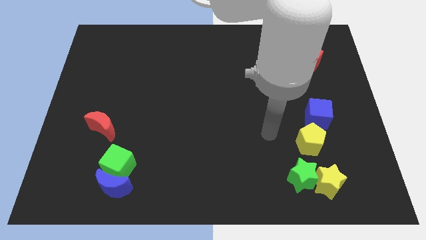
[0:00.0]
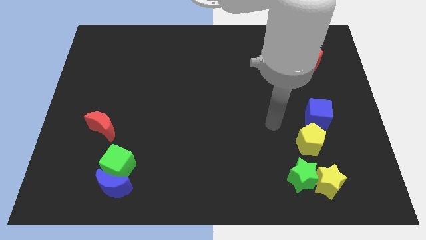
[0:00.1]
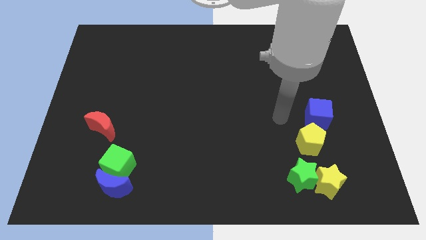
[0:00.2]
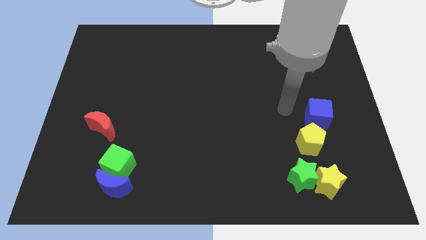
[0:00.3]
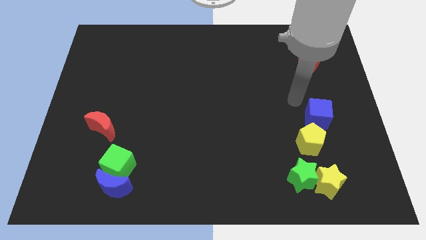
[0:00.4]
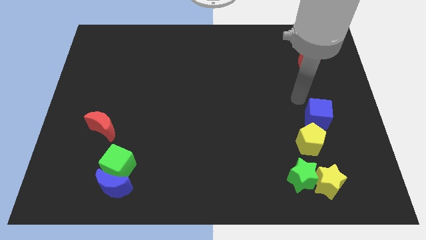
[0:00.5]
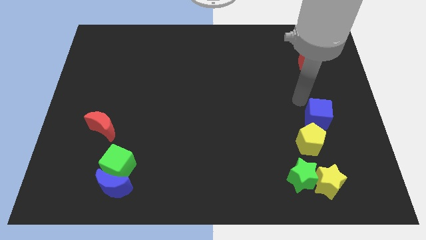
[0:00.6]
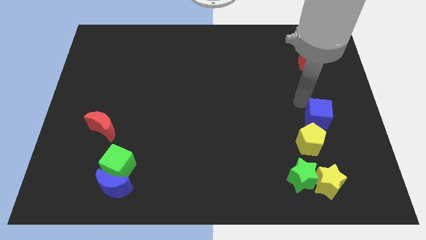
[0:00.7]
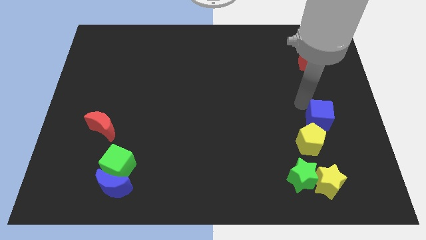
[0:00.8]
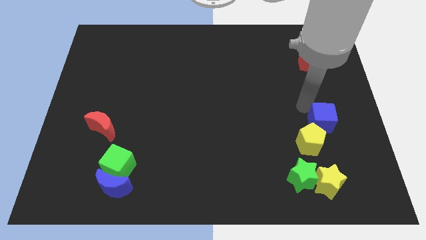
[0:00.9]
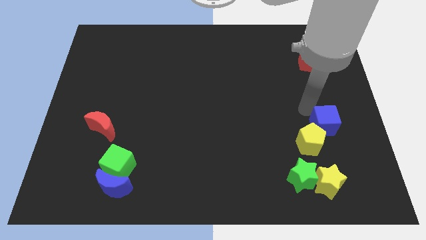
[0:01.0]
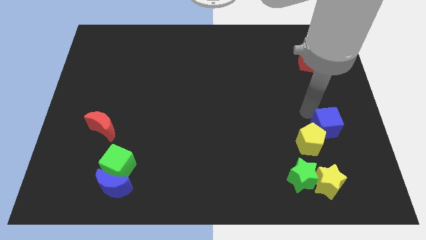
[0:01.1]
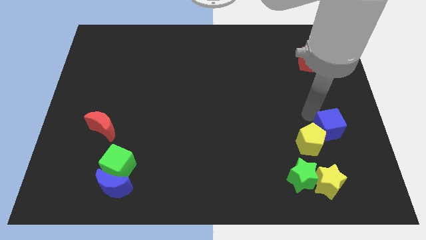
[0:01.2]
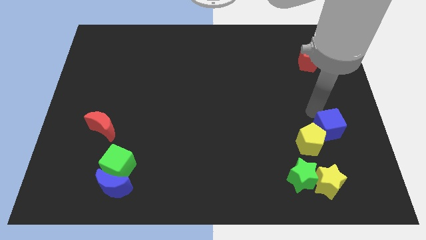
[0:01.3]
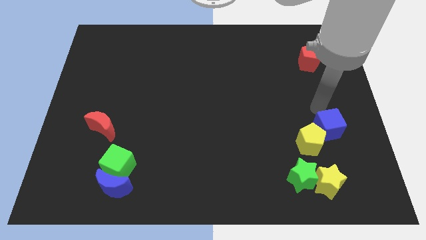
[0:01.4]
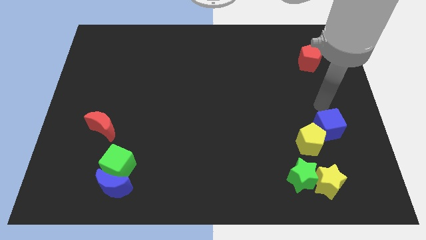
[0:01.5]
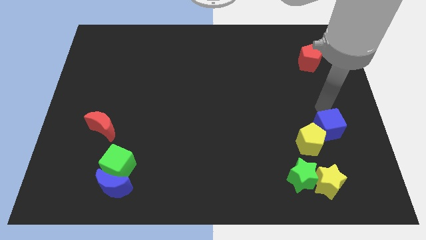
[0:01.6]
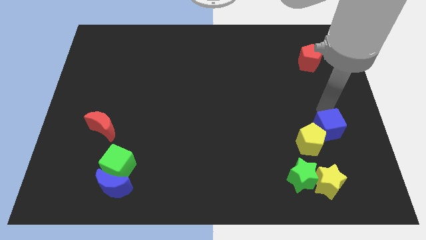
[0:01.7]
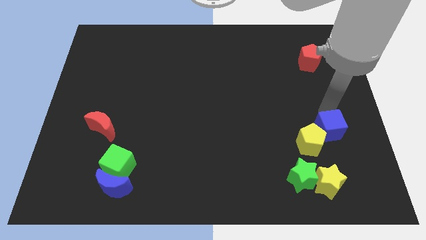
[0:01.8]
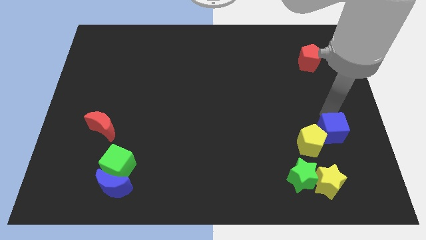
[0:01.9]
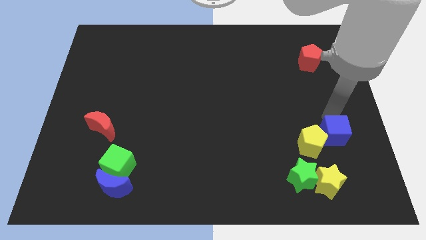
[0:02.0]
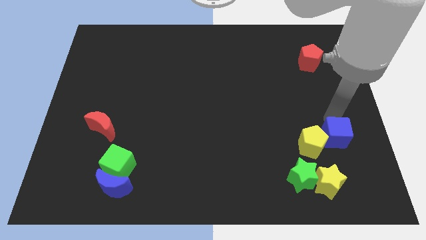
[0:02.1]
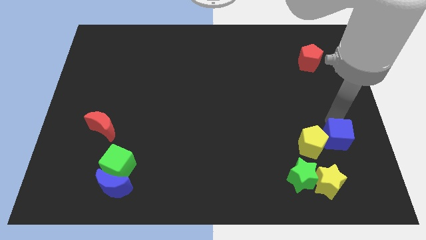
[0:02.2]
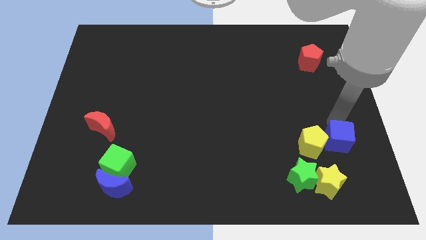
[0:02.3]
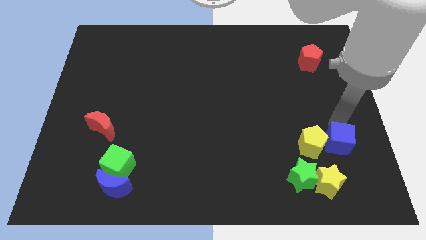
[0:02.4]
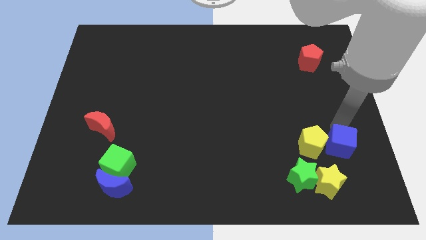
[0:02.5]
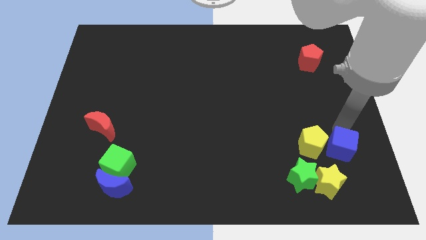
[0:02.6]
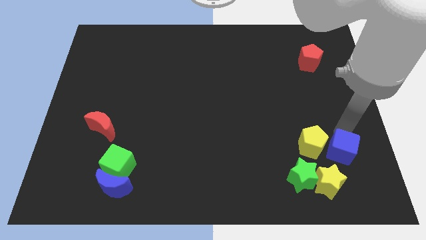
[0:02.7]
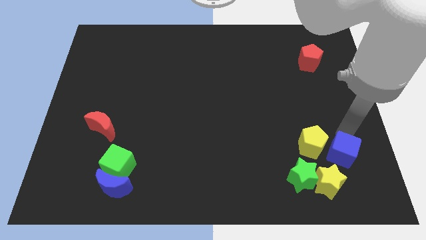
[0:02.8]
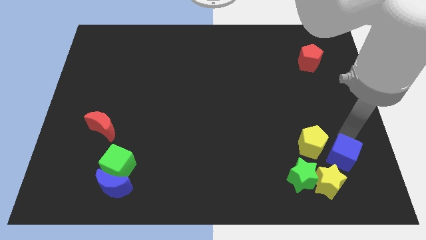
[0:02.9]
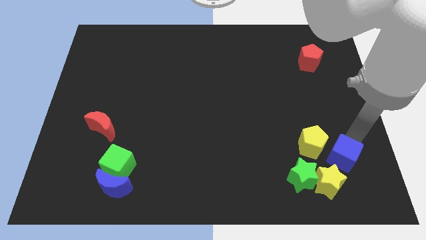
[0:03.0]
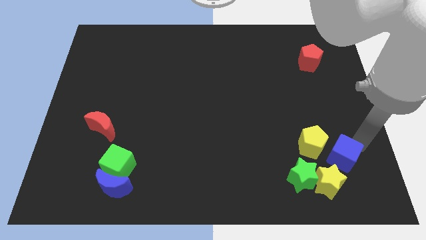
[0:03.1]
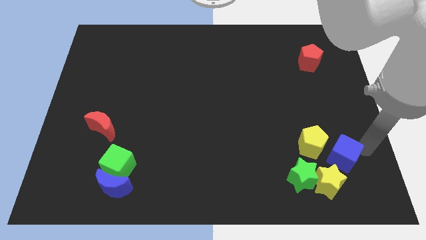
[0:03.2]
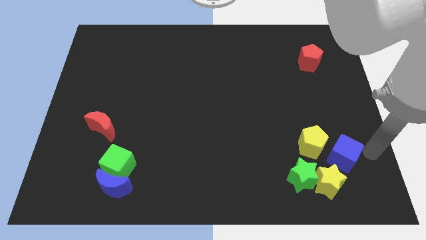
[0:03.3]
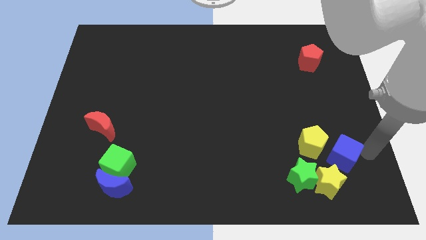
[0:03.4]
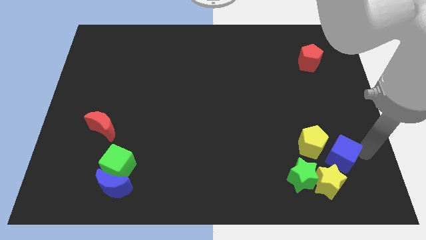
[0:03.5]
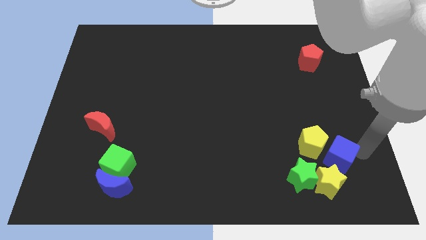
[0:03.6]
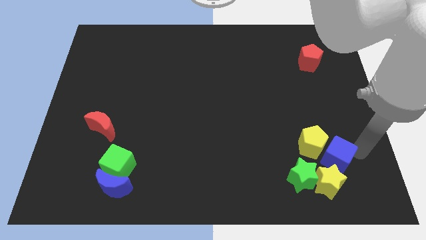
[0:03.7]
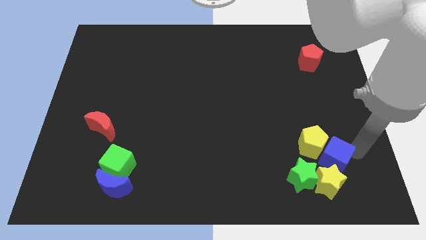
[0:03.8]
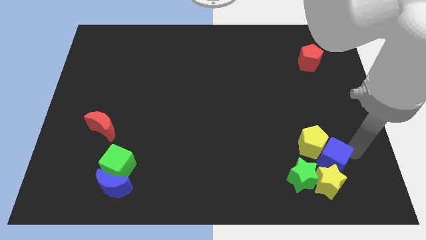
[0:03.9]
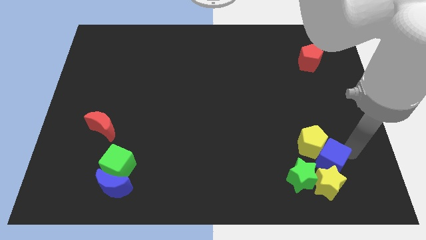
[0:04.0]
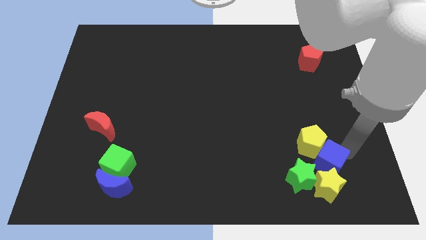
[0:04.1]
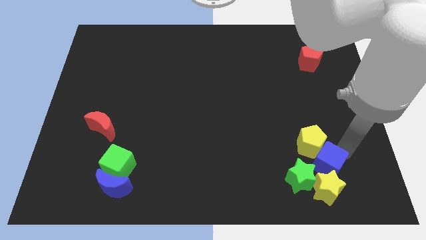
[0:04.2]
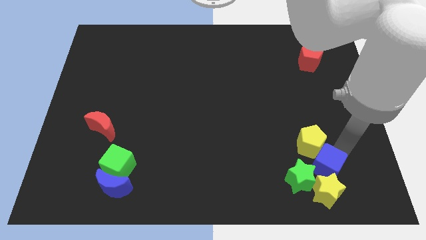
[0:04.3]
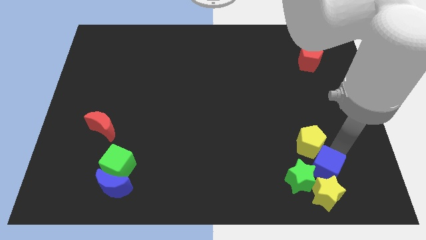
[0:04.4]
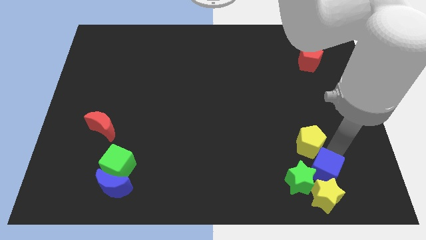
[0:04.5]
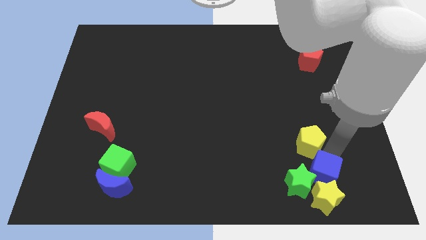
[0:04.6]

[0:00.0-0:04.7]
push the blue cube to the top left side of the yellow star

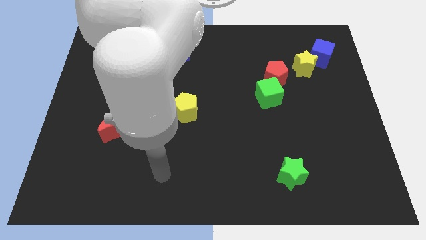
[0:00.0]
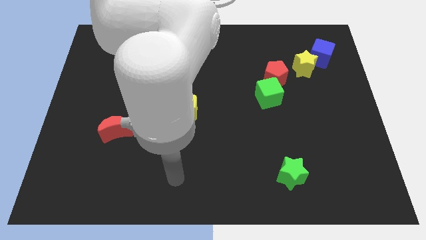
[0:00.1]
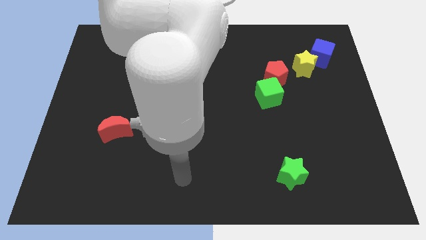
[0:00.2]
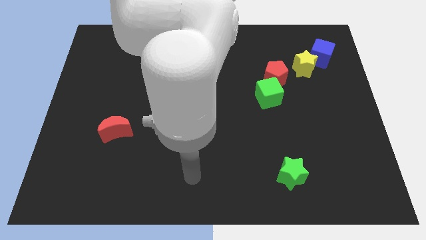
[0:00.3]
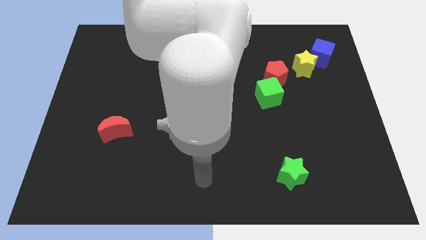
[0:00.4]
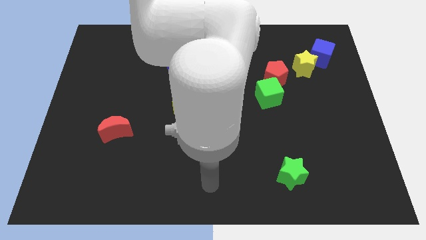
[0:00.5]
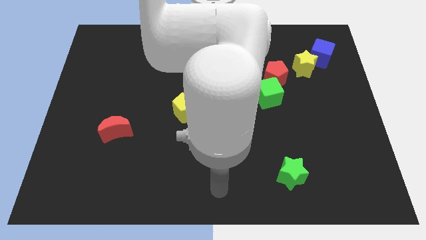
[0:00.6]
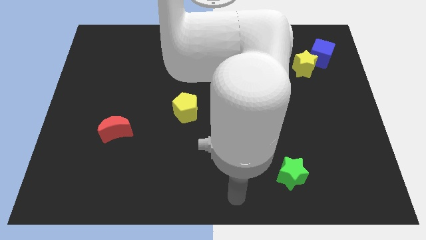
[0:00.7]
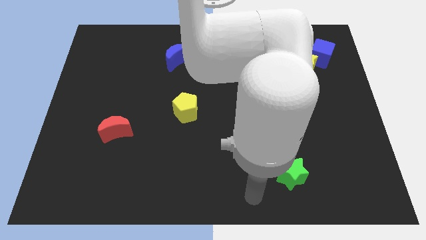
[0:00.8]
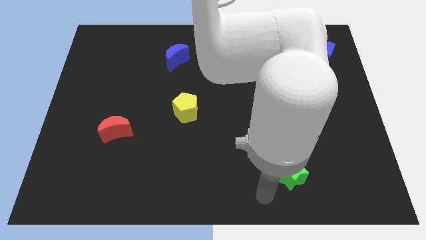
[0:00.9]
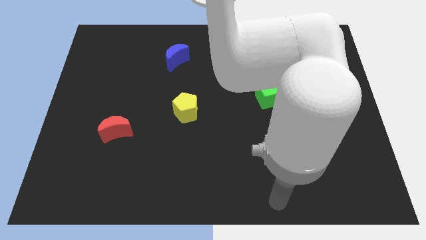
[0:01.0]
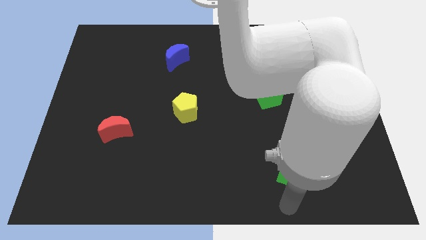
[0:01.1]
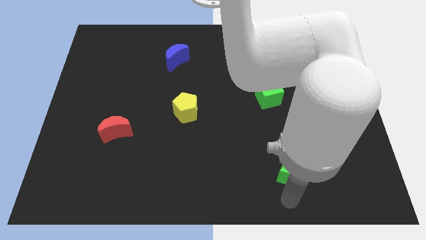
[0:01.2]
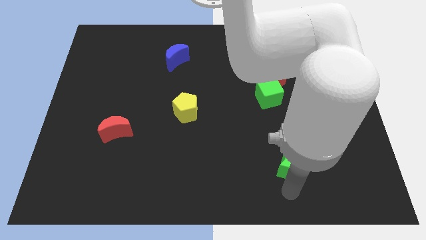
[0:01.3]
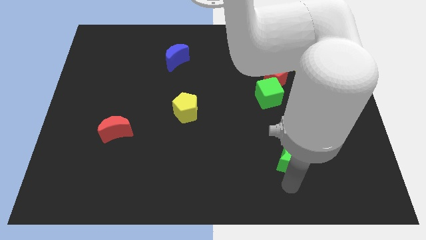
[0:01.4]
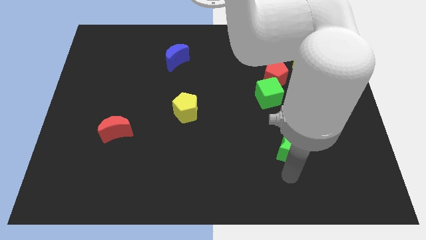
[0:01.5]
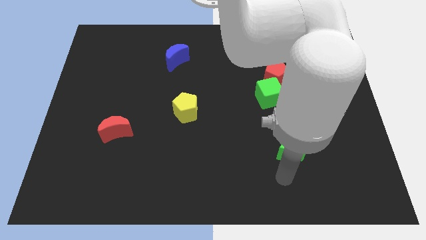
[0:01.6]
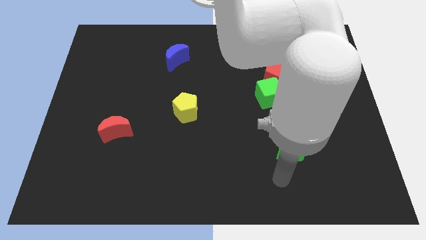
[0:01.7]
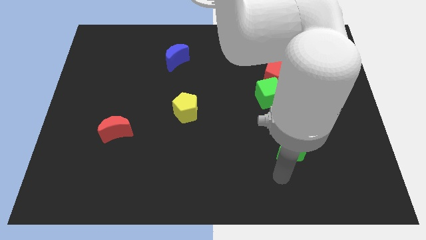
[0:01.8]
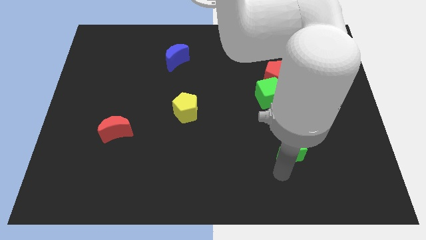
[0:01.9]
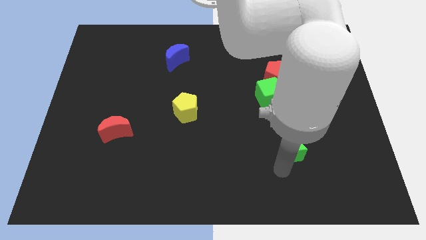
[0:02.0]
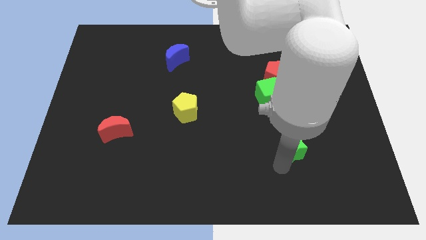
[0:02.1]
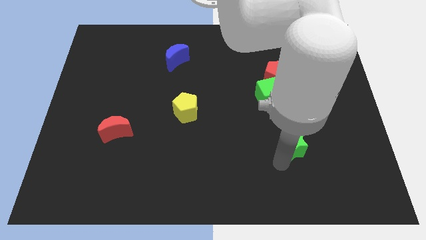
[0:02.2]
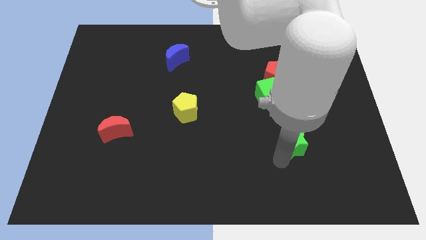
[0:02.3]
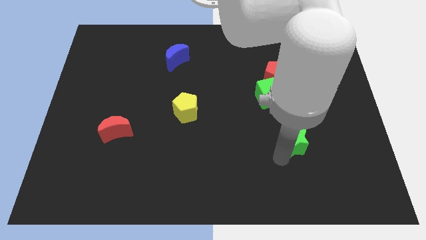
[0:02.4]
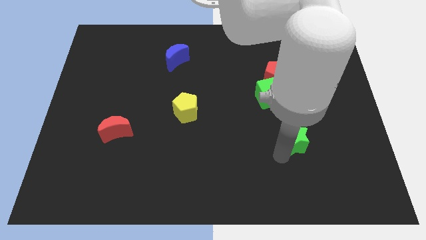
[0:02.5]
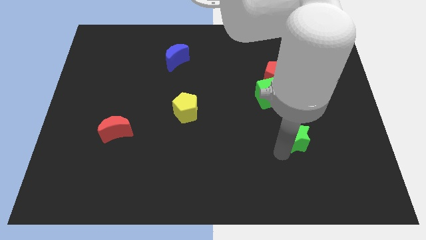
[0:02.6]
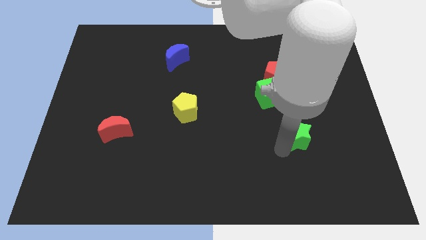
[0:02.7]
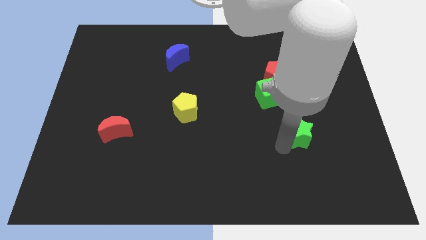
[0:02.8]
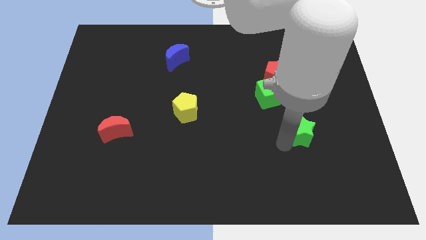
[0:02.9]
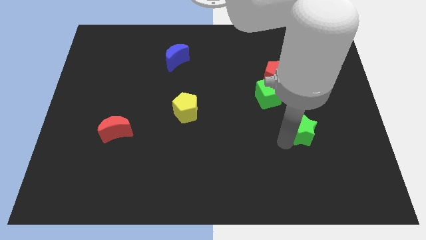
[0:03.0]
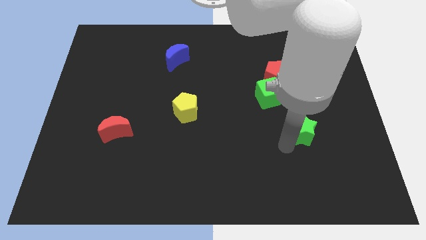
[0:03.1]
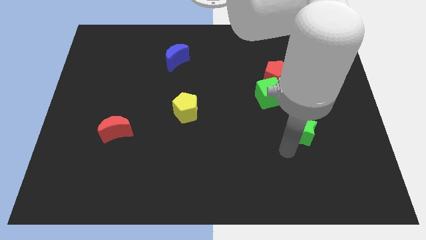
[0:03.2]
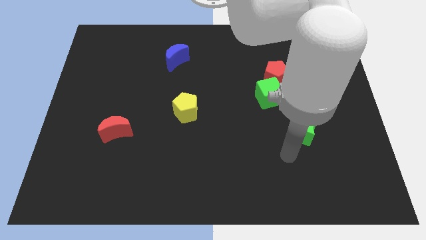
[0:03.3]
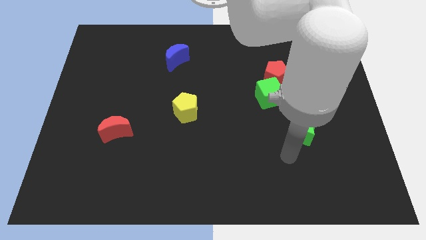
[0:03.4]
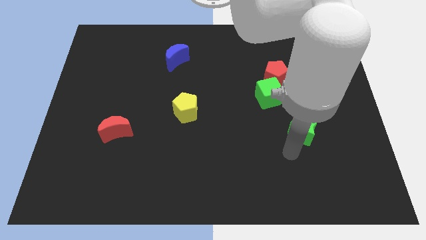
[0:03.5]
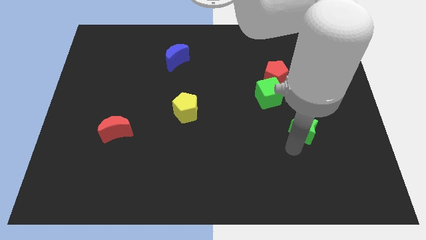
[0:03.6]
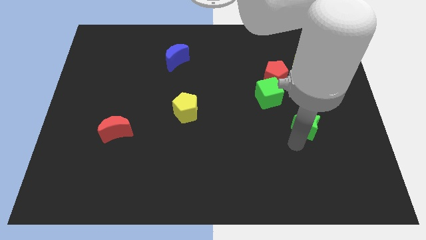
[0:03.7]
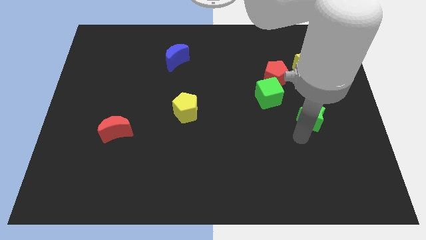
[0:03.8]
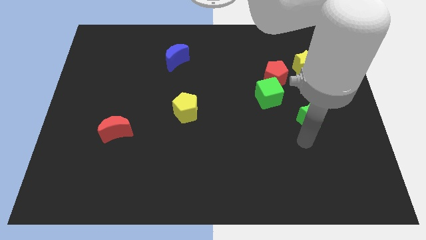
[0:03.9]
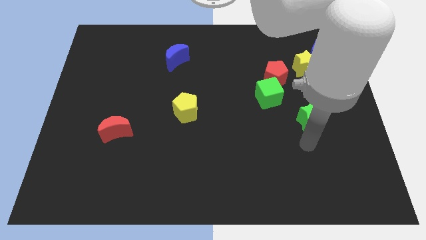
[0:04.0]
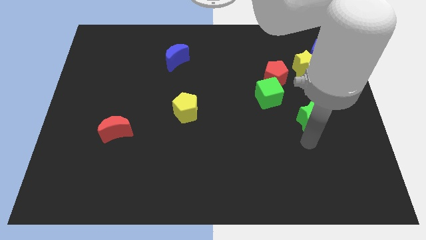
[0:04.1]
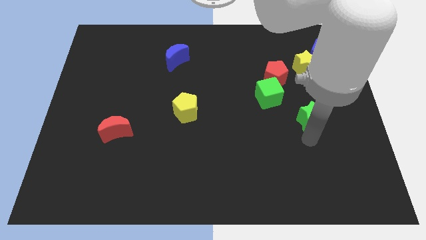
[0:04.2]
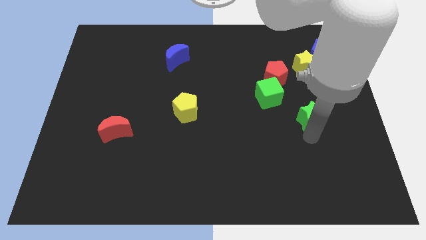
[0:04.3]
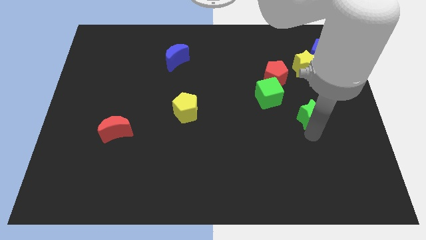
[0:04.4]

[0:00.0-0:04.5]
move the green star to the bottom of the yellow star
